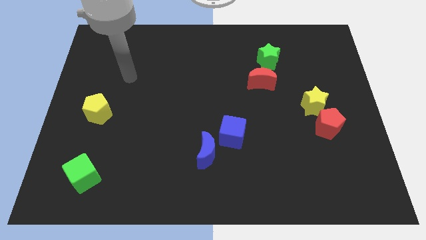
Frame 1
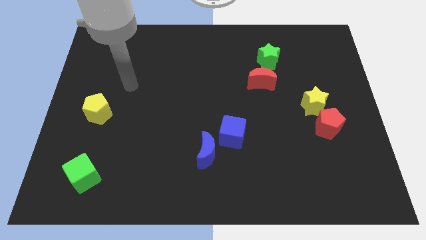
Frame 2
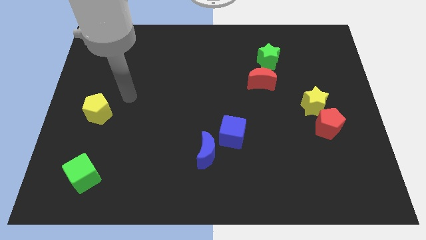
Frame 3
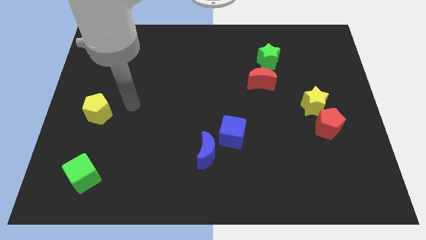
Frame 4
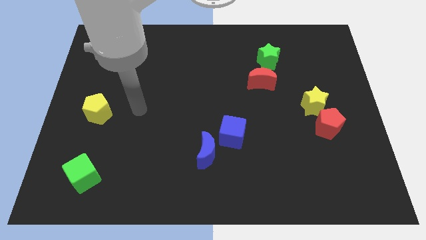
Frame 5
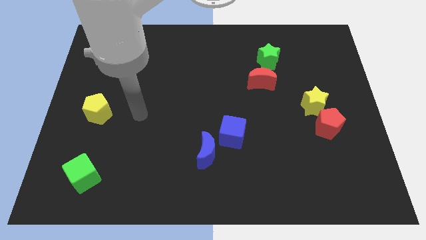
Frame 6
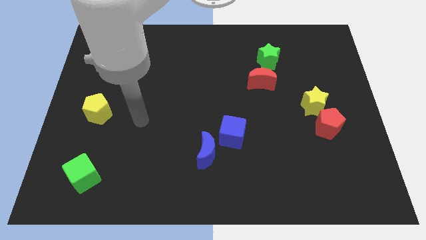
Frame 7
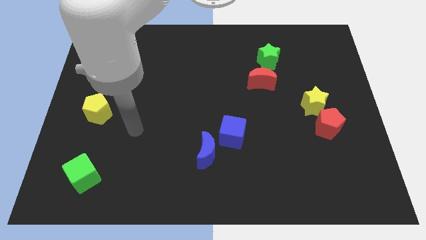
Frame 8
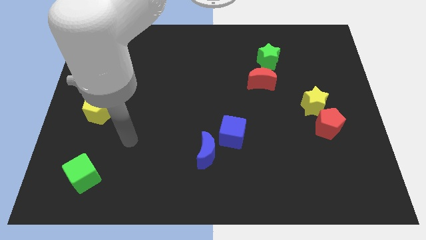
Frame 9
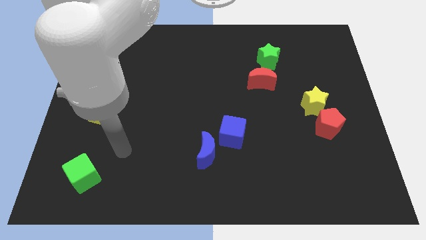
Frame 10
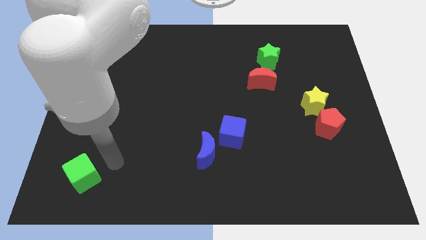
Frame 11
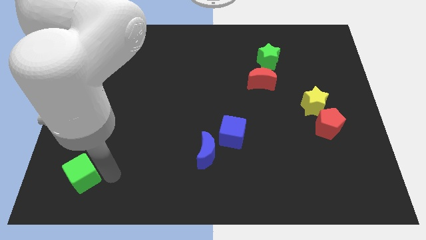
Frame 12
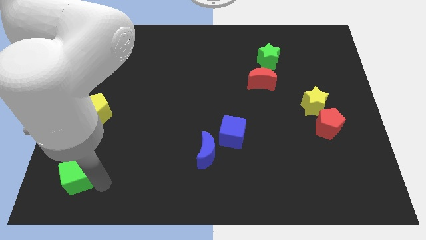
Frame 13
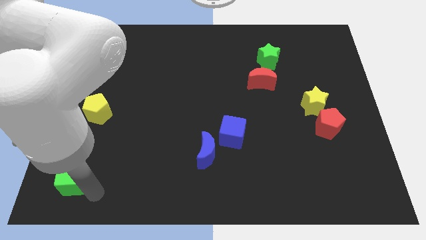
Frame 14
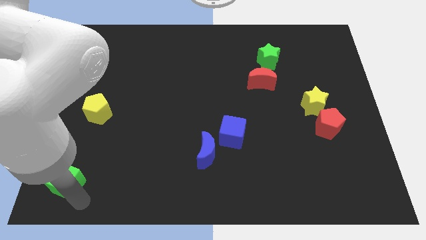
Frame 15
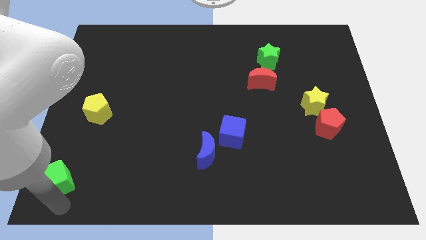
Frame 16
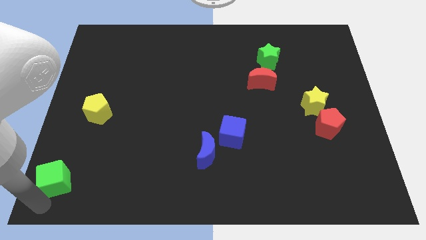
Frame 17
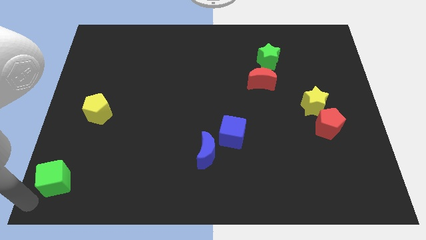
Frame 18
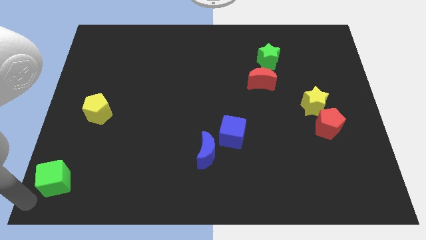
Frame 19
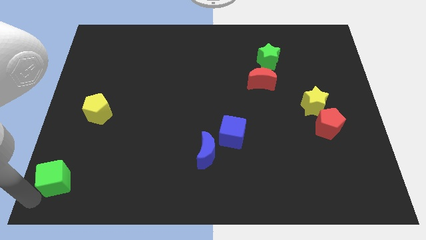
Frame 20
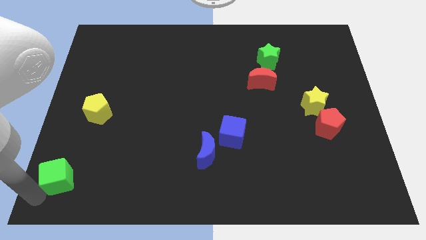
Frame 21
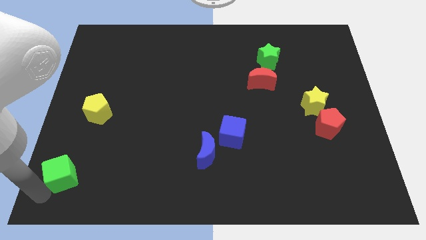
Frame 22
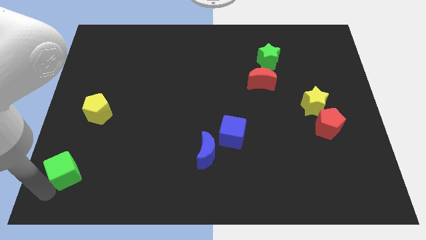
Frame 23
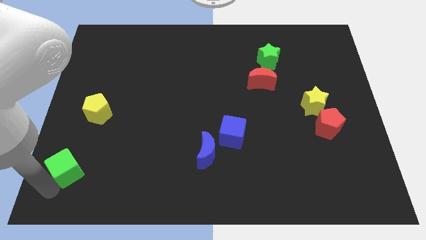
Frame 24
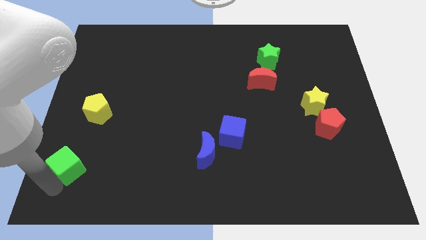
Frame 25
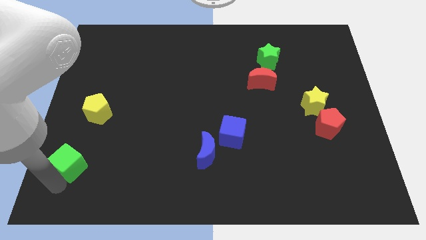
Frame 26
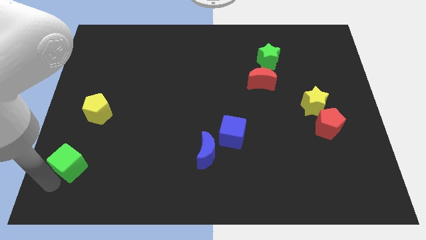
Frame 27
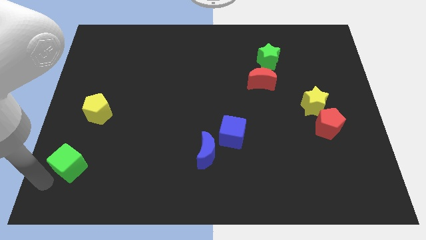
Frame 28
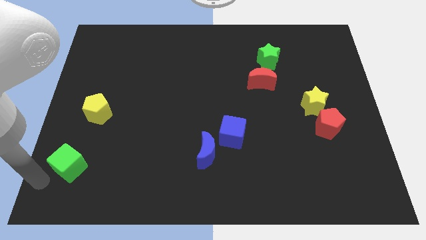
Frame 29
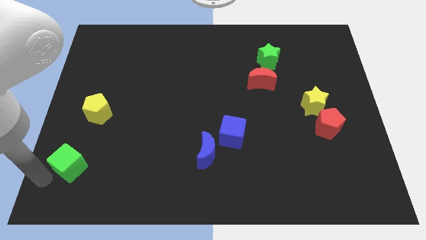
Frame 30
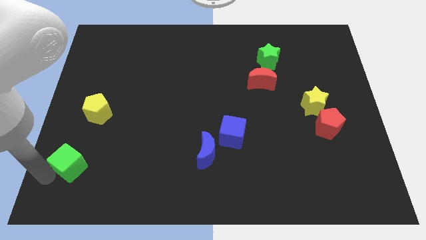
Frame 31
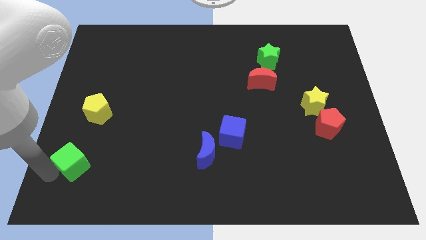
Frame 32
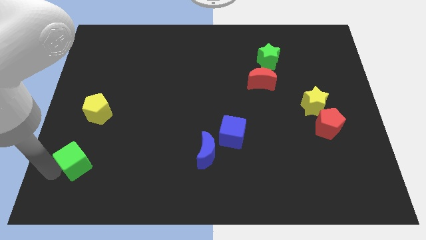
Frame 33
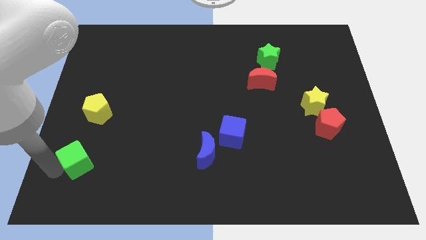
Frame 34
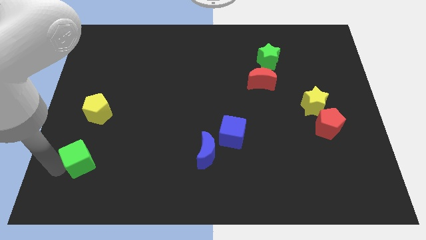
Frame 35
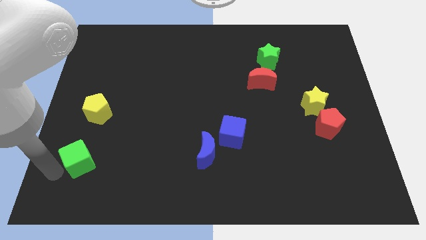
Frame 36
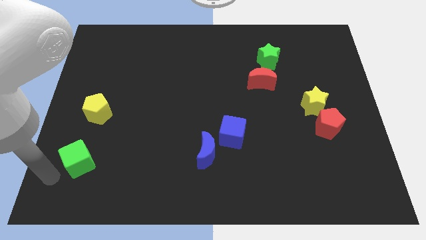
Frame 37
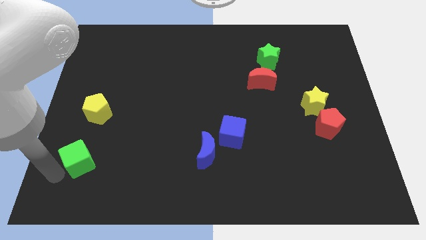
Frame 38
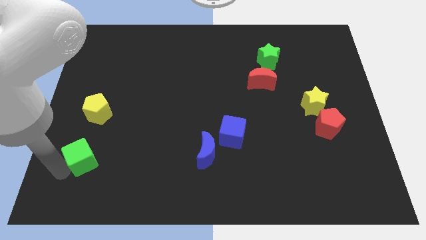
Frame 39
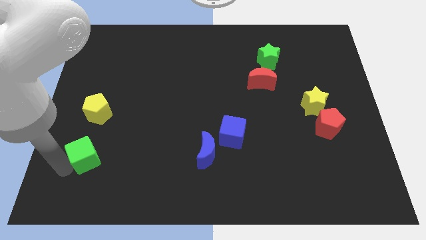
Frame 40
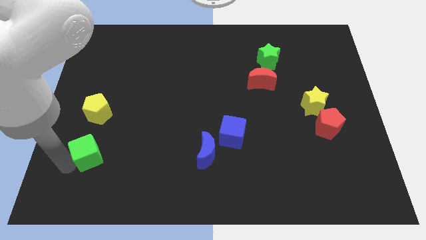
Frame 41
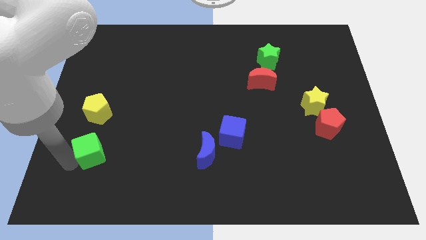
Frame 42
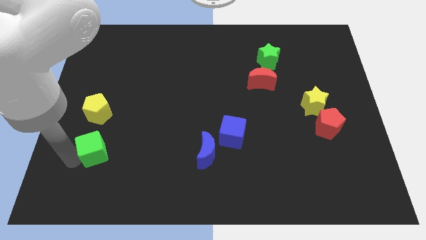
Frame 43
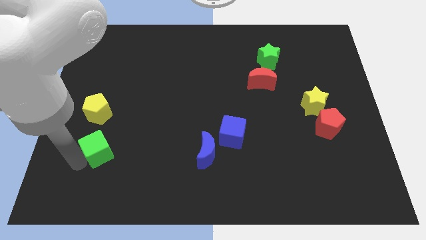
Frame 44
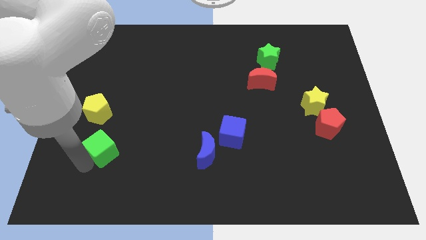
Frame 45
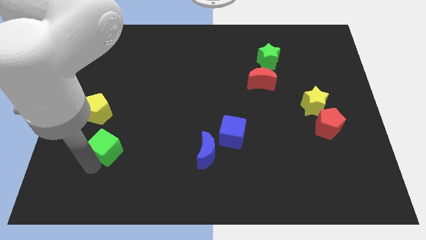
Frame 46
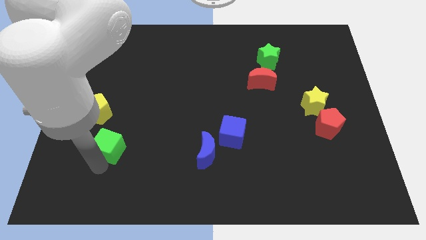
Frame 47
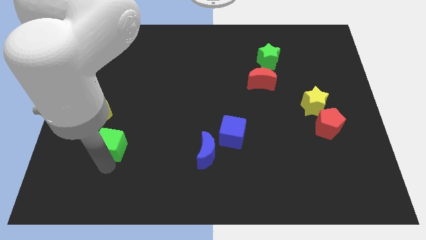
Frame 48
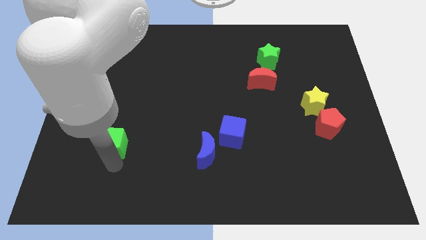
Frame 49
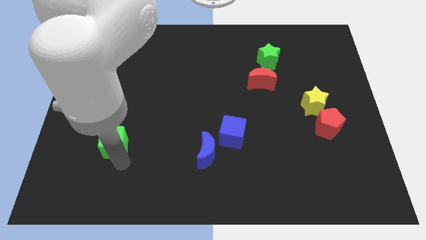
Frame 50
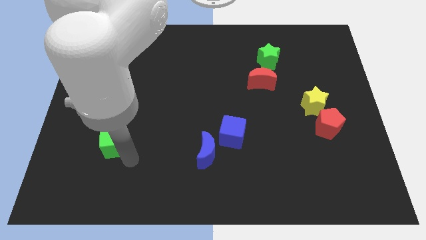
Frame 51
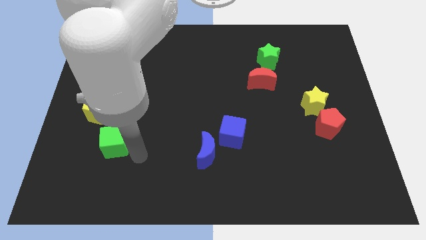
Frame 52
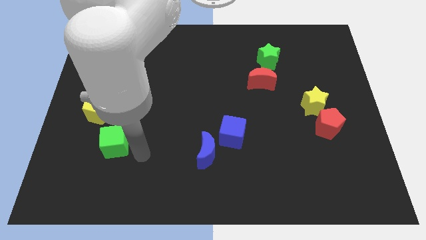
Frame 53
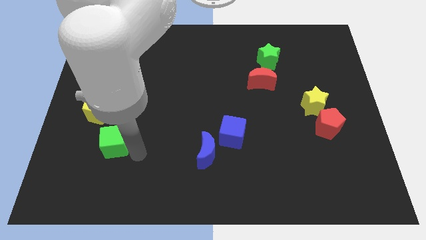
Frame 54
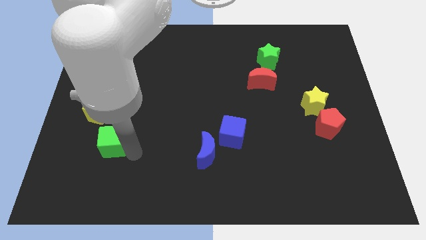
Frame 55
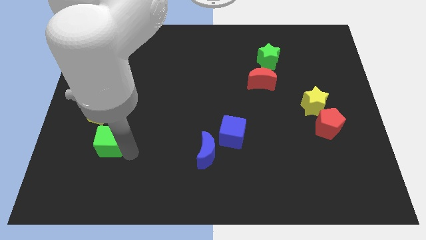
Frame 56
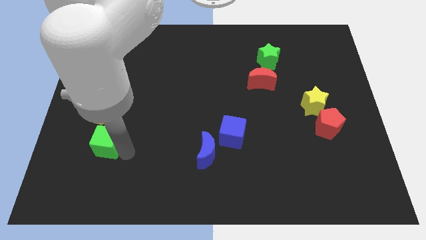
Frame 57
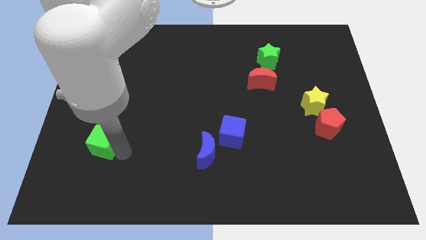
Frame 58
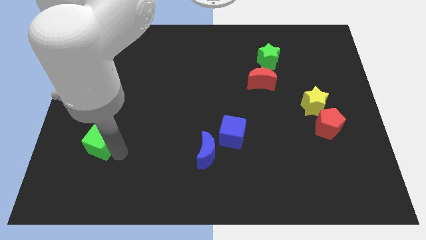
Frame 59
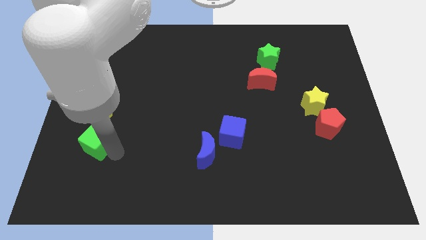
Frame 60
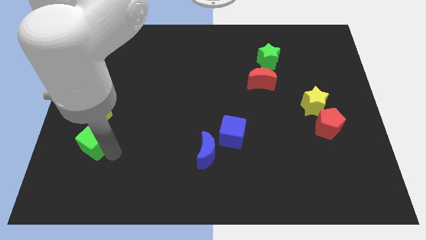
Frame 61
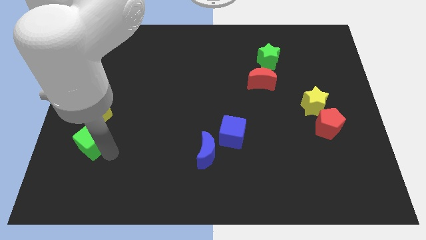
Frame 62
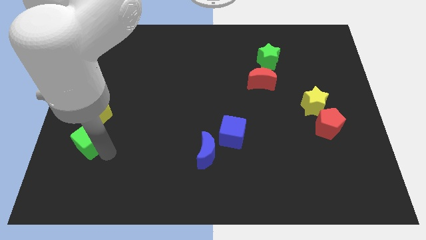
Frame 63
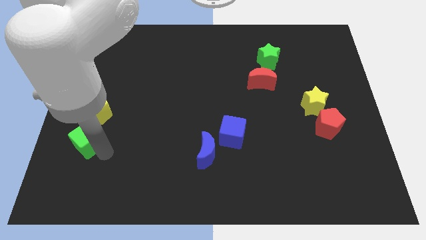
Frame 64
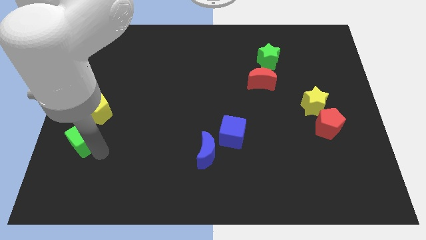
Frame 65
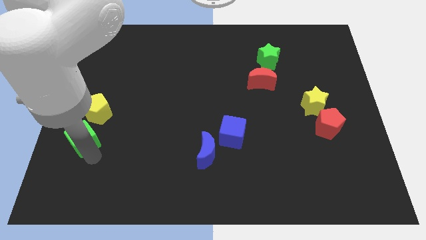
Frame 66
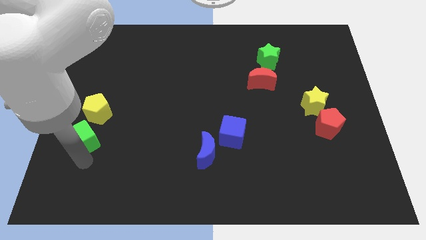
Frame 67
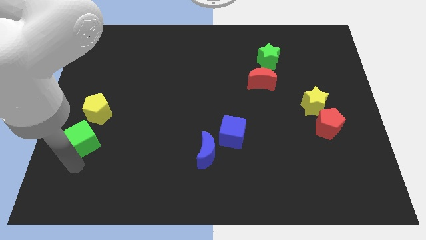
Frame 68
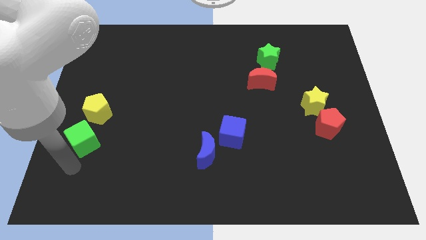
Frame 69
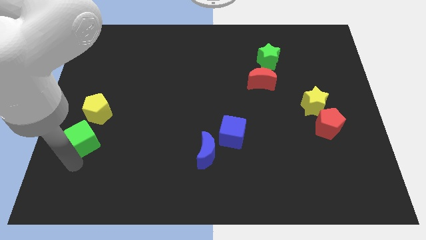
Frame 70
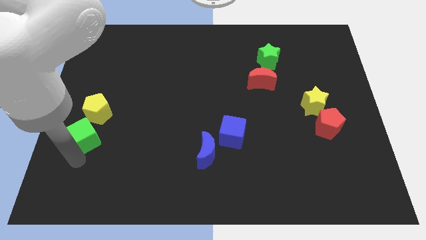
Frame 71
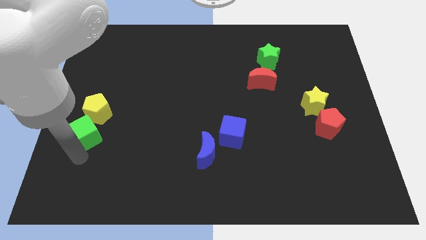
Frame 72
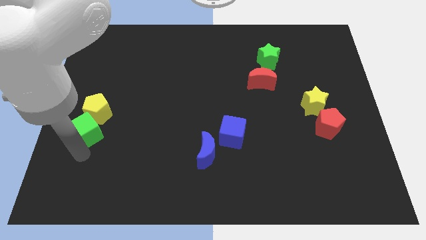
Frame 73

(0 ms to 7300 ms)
push the green cube to the yellow pentagon
